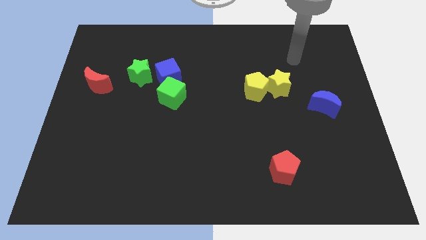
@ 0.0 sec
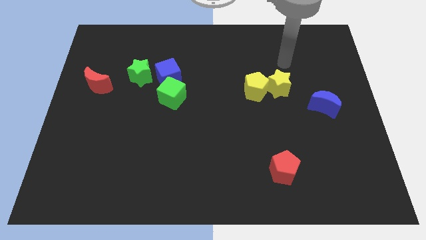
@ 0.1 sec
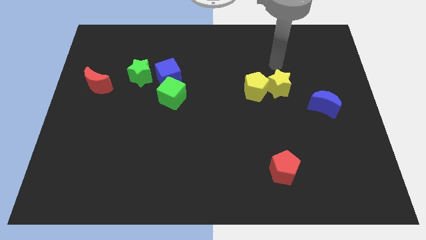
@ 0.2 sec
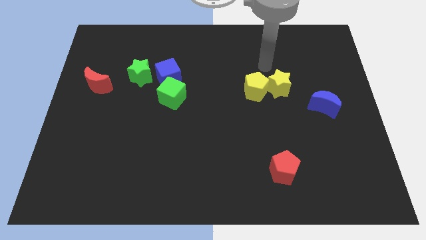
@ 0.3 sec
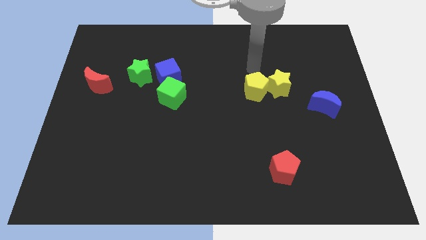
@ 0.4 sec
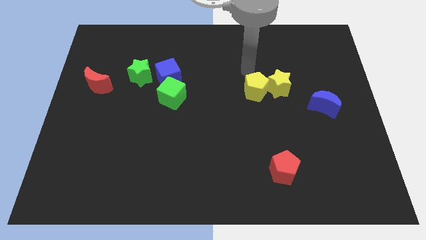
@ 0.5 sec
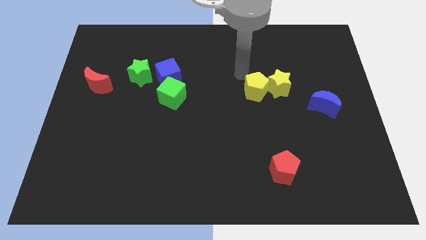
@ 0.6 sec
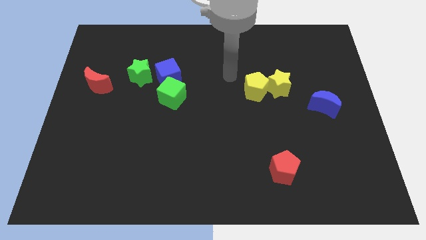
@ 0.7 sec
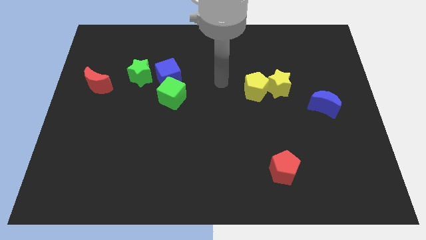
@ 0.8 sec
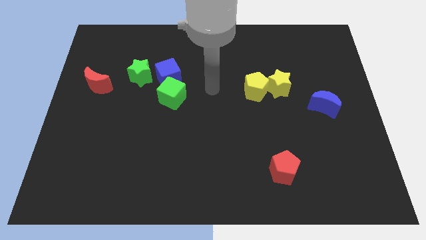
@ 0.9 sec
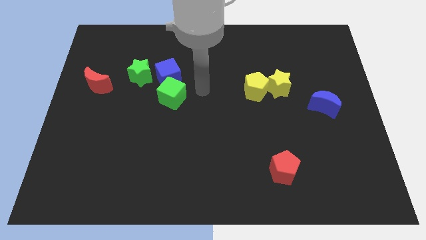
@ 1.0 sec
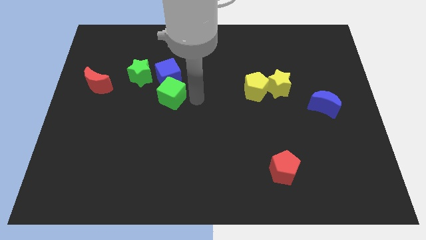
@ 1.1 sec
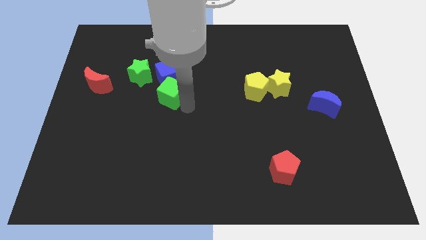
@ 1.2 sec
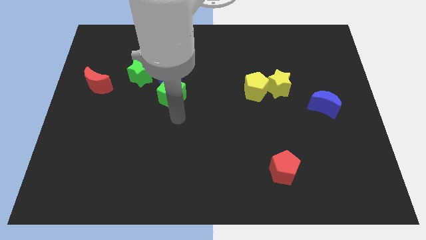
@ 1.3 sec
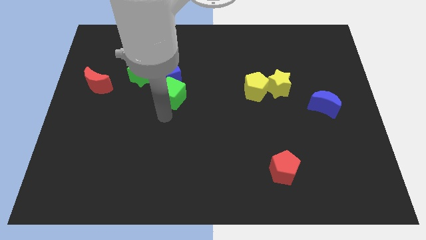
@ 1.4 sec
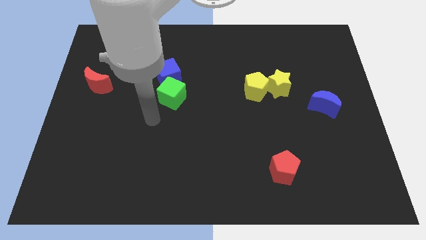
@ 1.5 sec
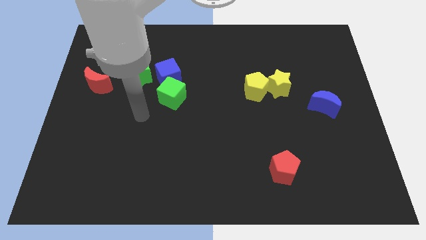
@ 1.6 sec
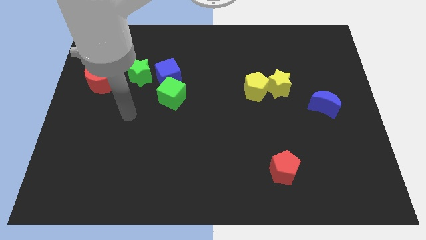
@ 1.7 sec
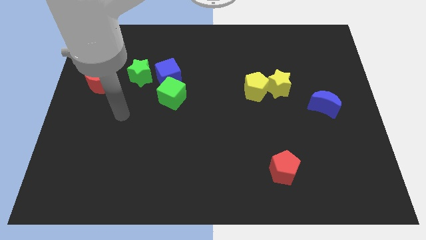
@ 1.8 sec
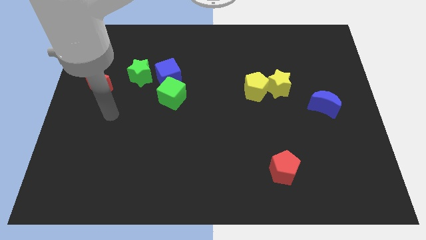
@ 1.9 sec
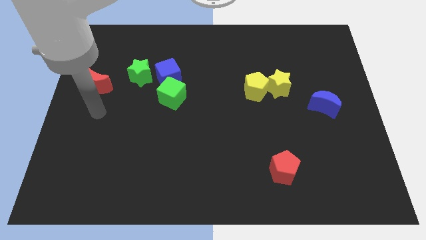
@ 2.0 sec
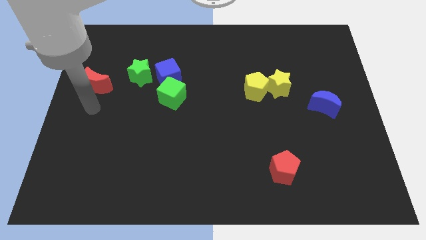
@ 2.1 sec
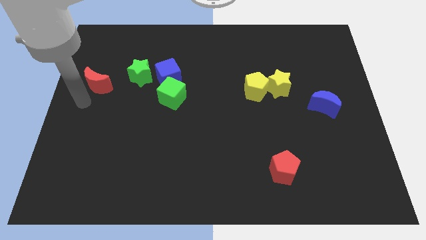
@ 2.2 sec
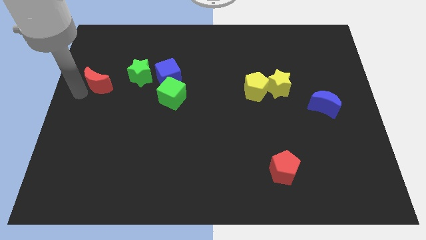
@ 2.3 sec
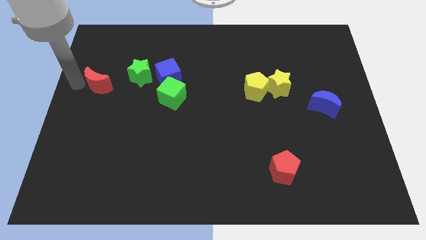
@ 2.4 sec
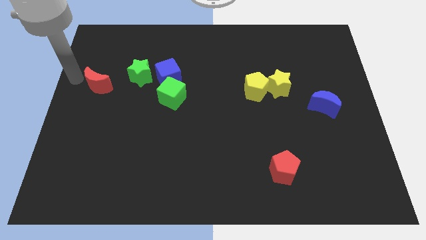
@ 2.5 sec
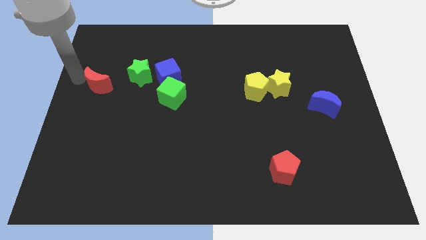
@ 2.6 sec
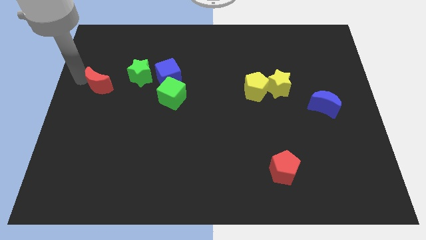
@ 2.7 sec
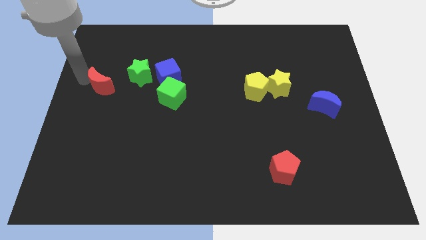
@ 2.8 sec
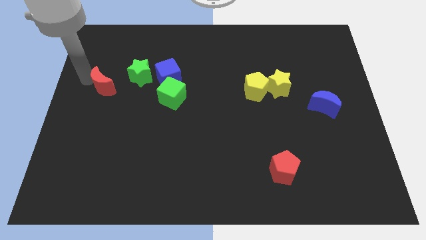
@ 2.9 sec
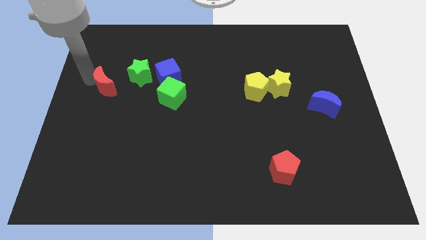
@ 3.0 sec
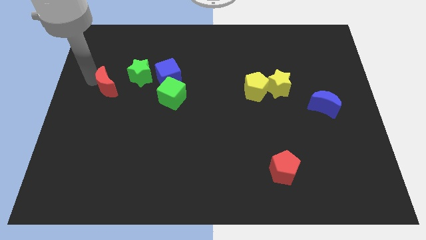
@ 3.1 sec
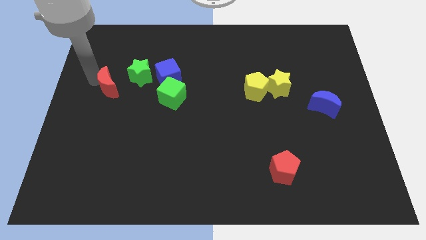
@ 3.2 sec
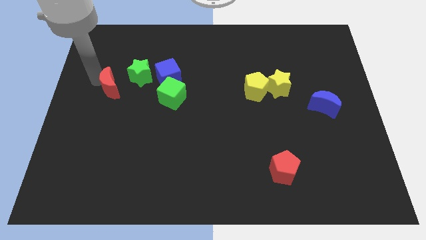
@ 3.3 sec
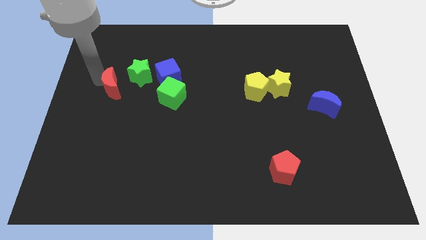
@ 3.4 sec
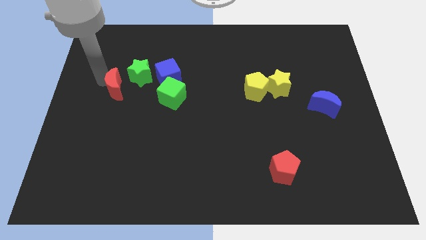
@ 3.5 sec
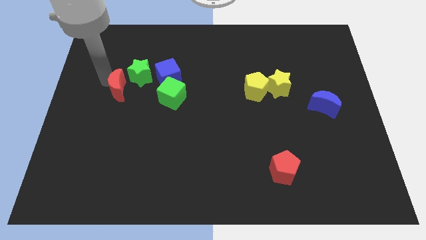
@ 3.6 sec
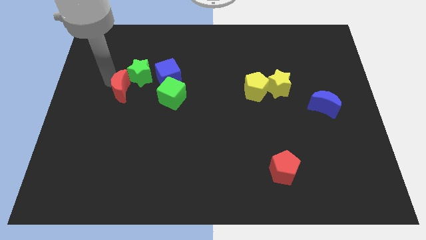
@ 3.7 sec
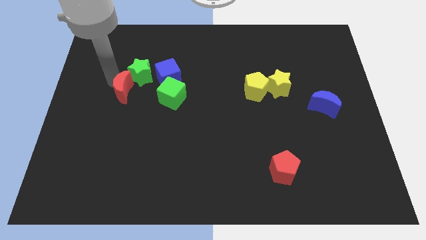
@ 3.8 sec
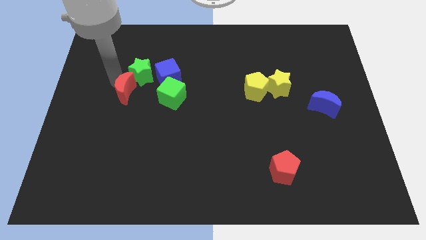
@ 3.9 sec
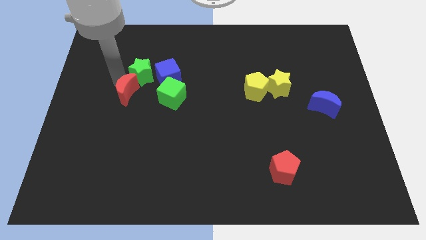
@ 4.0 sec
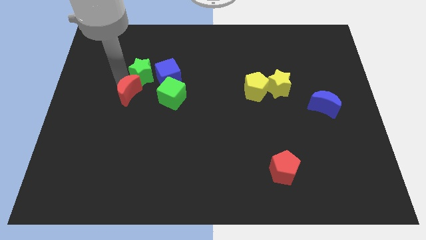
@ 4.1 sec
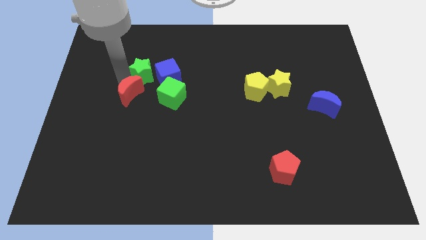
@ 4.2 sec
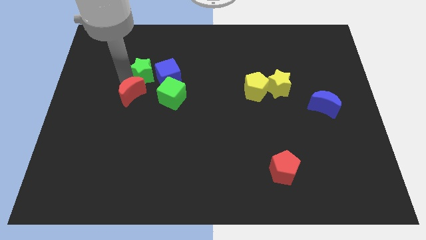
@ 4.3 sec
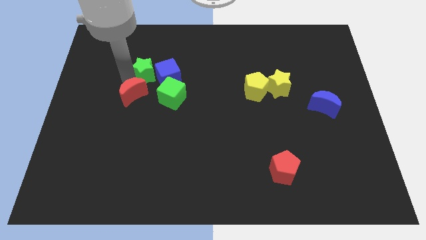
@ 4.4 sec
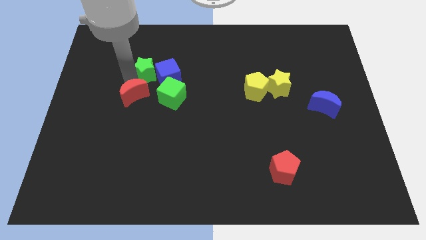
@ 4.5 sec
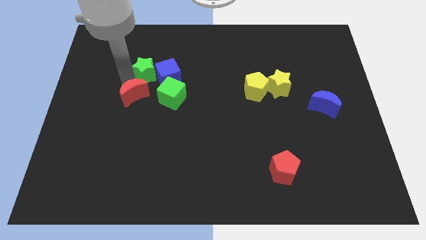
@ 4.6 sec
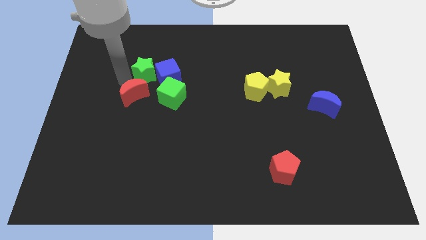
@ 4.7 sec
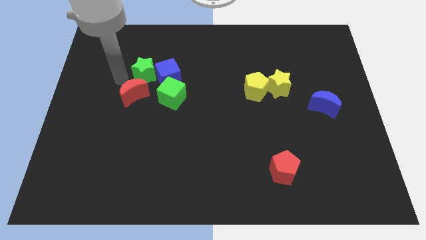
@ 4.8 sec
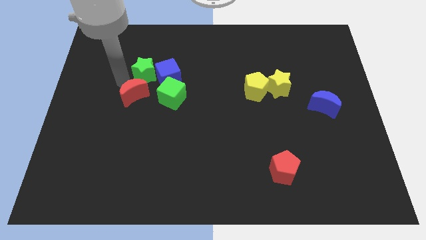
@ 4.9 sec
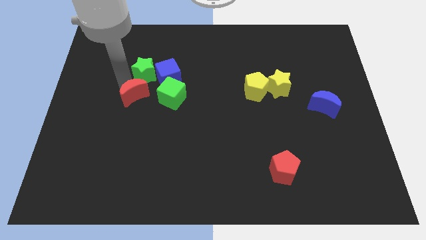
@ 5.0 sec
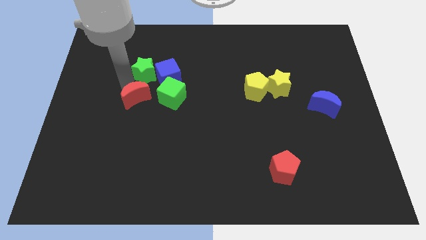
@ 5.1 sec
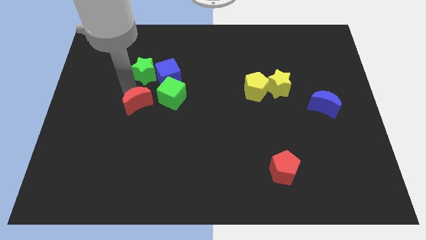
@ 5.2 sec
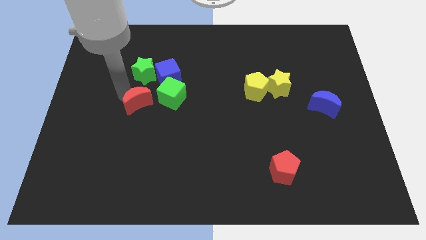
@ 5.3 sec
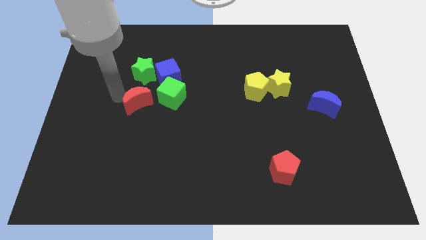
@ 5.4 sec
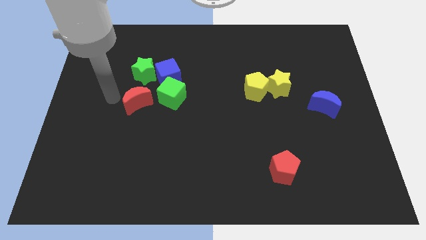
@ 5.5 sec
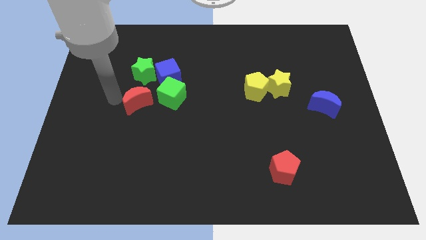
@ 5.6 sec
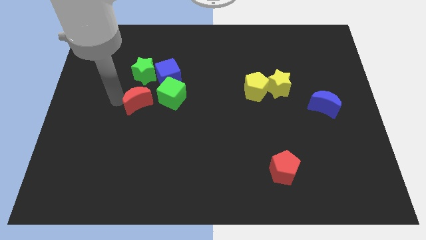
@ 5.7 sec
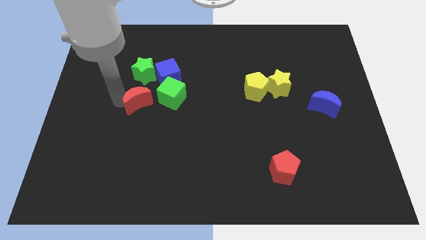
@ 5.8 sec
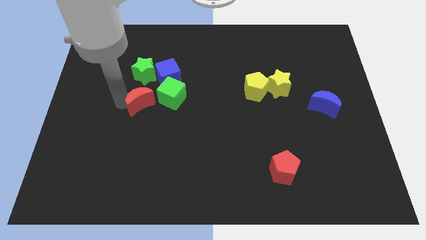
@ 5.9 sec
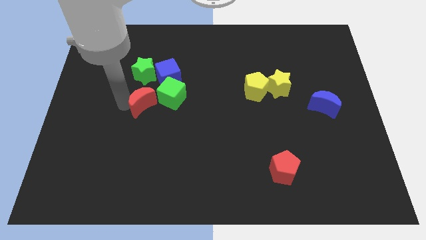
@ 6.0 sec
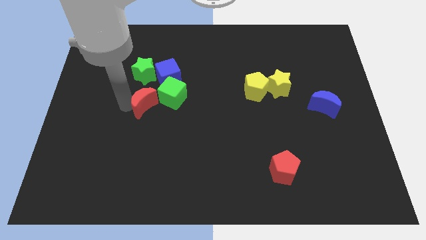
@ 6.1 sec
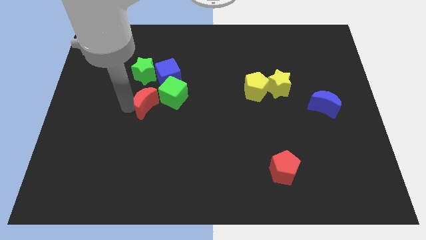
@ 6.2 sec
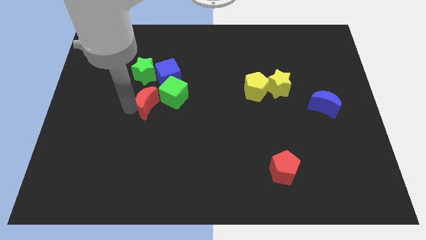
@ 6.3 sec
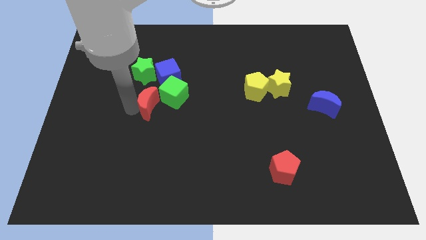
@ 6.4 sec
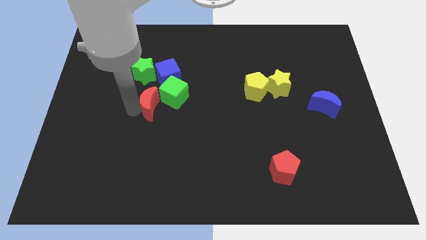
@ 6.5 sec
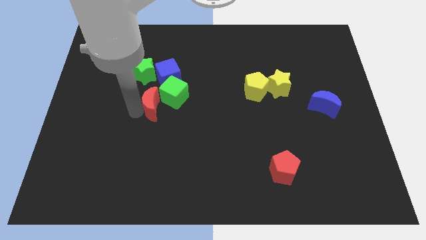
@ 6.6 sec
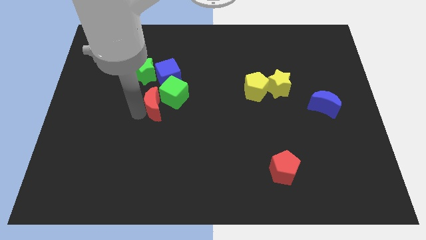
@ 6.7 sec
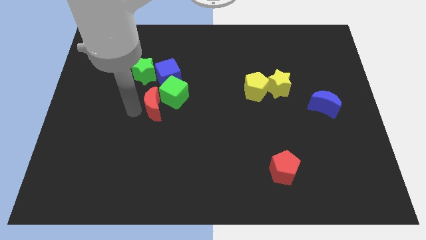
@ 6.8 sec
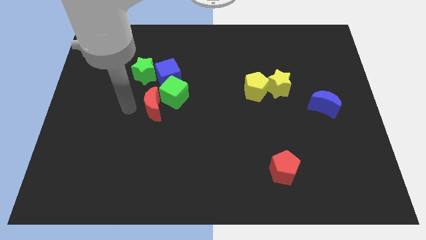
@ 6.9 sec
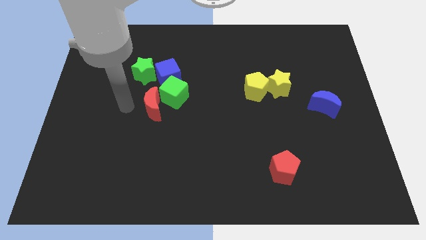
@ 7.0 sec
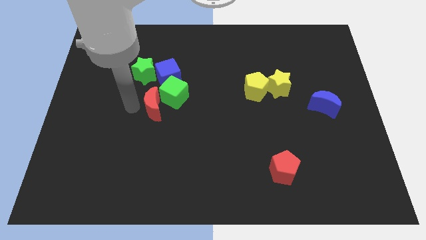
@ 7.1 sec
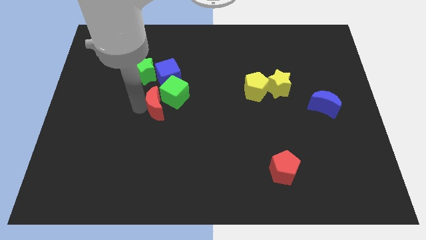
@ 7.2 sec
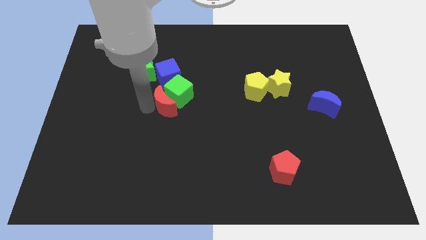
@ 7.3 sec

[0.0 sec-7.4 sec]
slide the red moon to the middle
